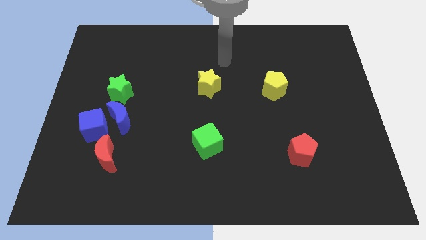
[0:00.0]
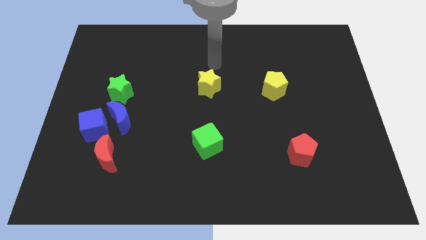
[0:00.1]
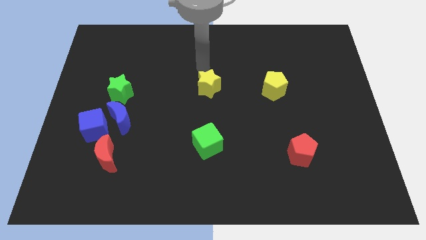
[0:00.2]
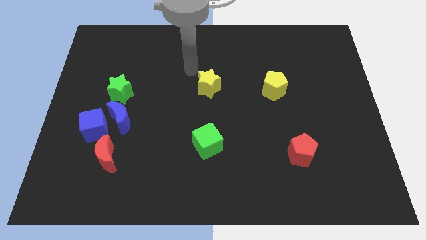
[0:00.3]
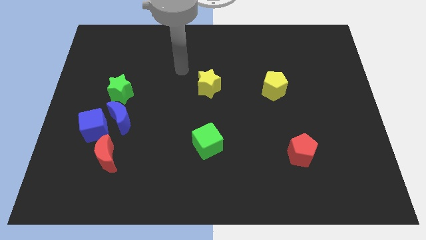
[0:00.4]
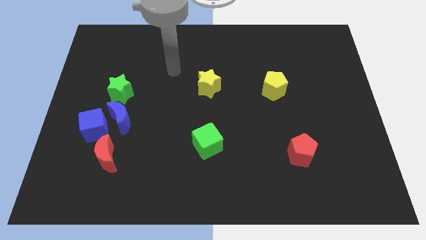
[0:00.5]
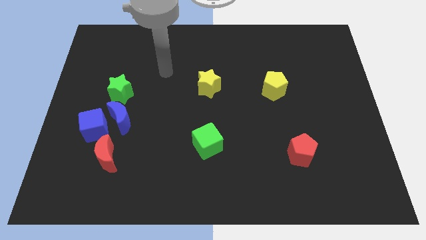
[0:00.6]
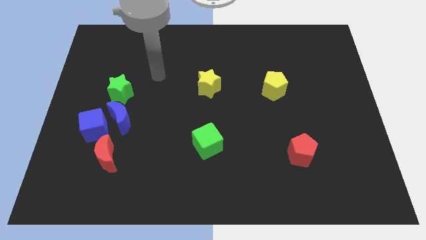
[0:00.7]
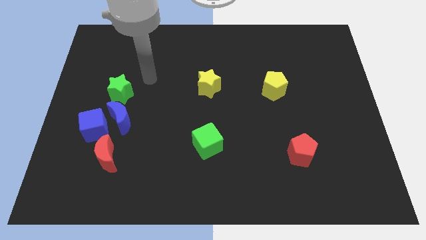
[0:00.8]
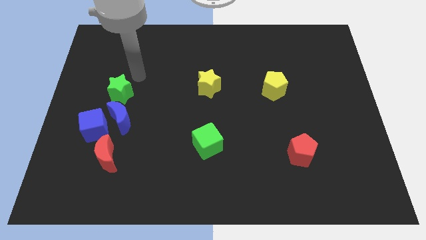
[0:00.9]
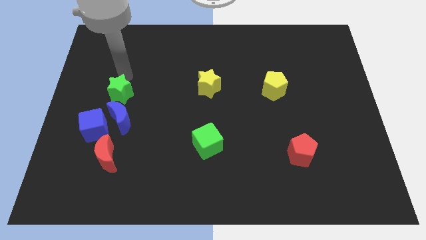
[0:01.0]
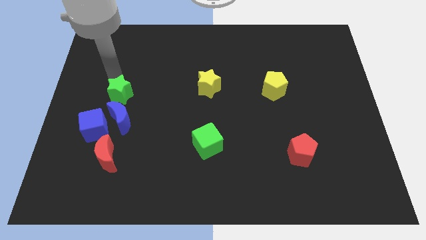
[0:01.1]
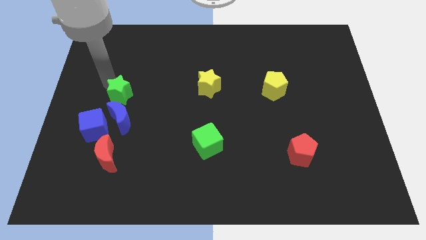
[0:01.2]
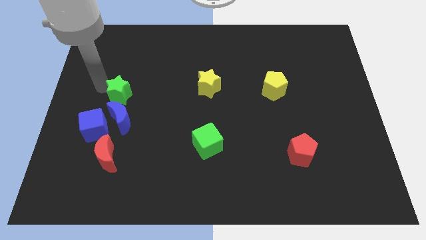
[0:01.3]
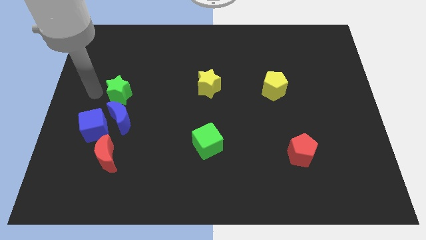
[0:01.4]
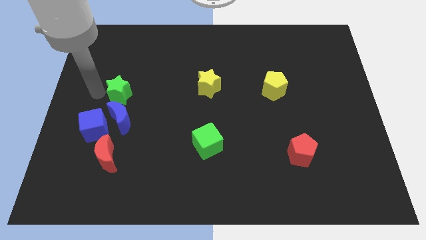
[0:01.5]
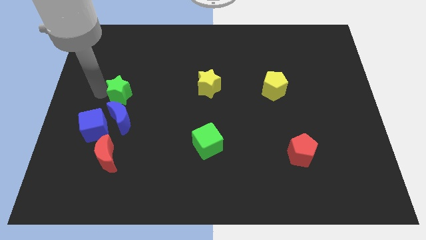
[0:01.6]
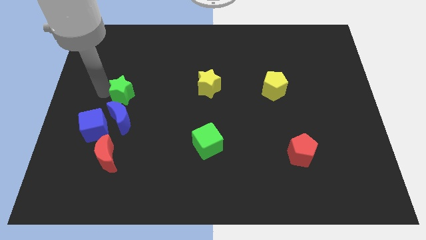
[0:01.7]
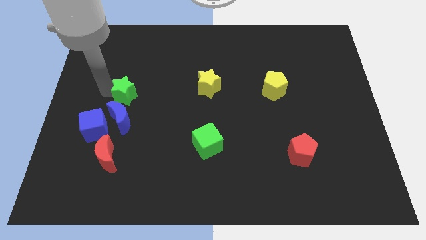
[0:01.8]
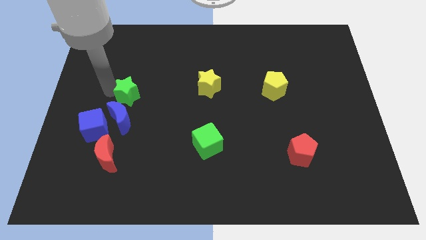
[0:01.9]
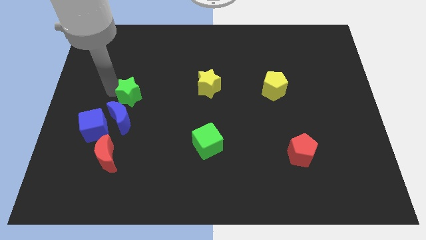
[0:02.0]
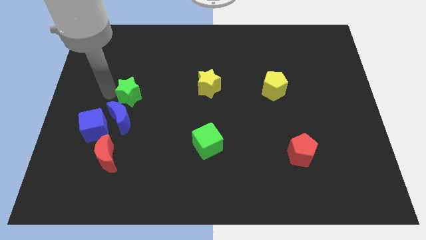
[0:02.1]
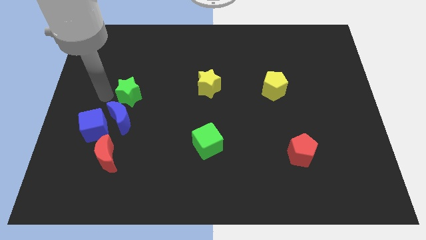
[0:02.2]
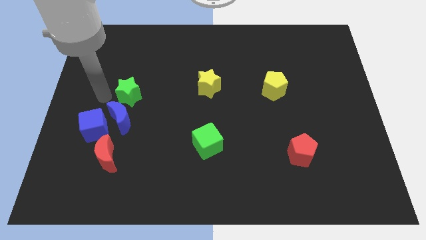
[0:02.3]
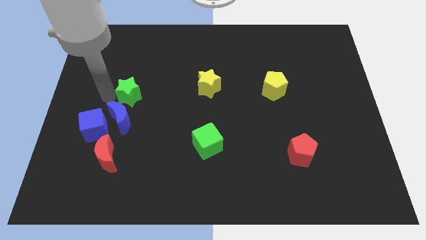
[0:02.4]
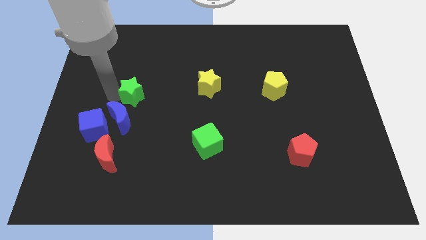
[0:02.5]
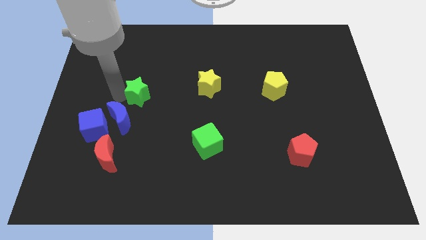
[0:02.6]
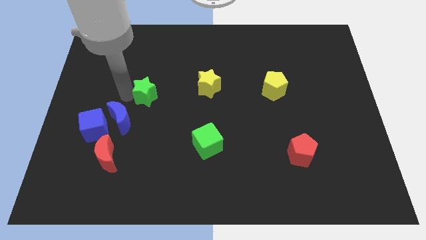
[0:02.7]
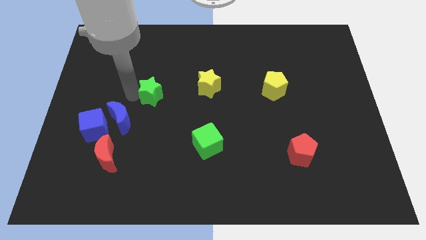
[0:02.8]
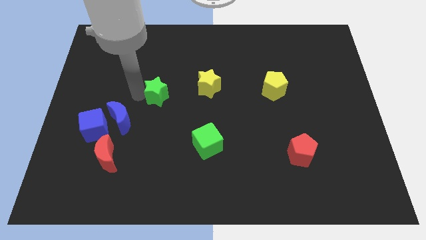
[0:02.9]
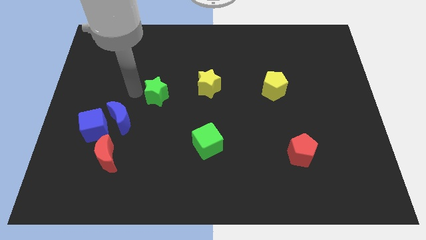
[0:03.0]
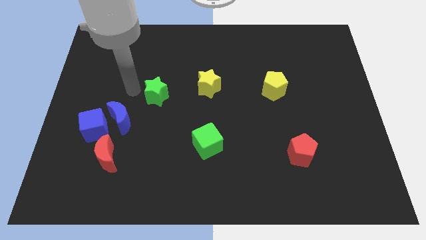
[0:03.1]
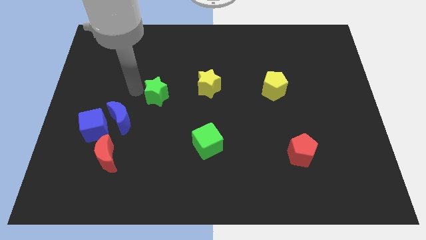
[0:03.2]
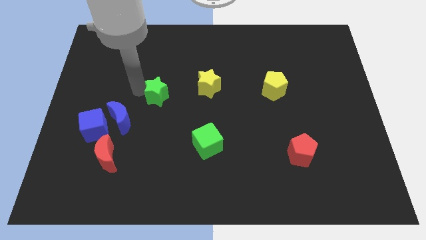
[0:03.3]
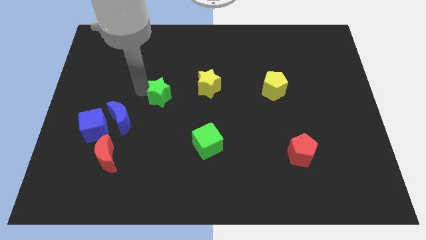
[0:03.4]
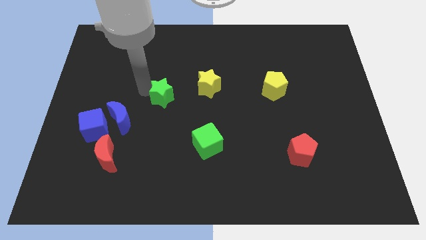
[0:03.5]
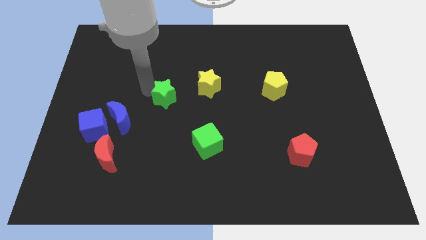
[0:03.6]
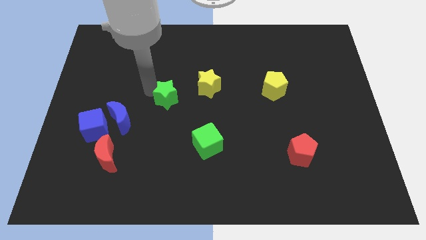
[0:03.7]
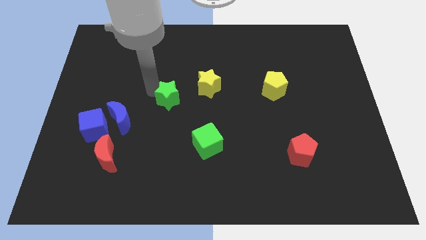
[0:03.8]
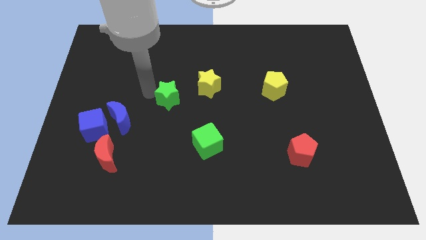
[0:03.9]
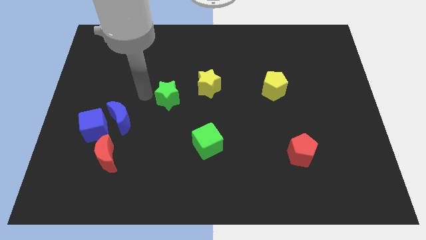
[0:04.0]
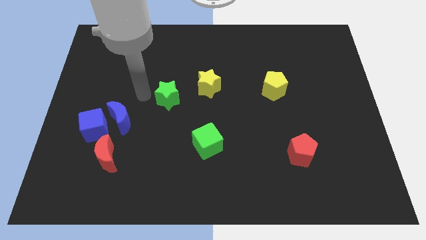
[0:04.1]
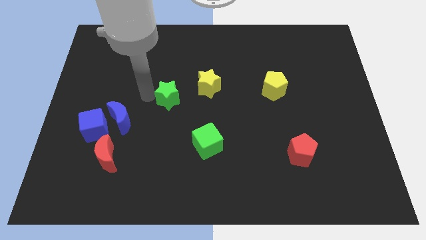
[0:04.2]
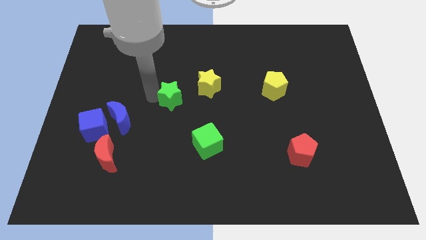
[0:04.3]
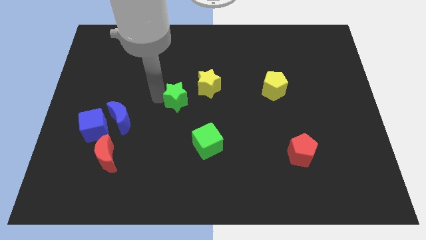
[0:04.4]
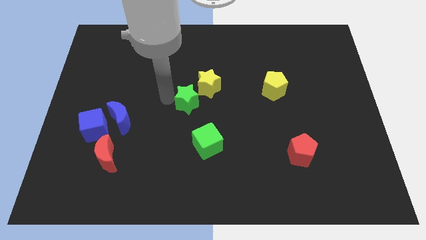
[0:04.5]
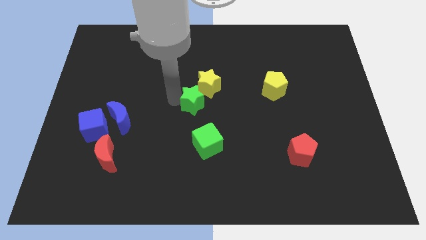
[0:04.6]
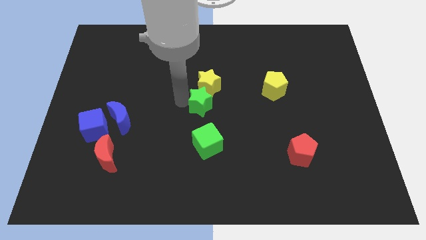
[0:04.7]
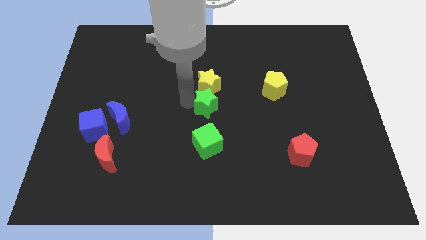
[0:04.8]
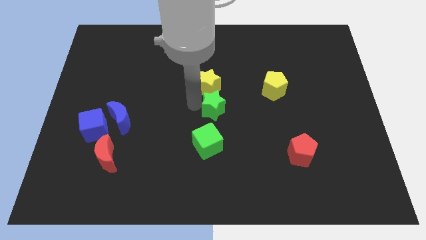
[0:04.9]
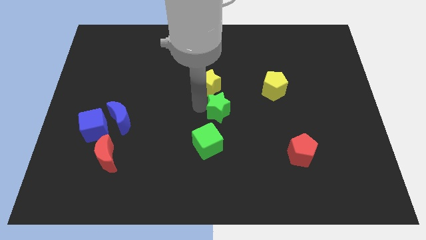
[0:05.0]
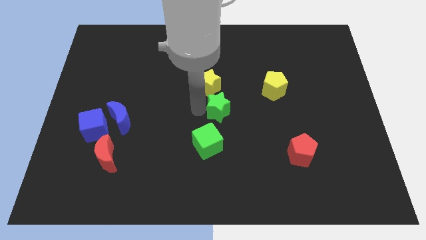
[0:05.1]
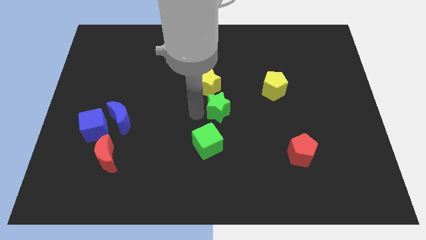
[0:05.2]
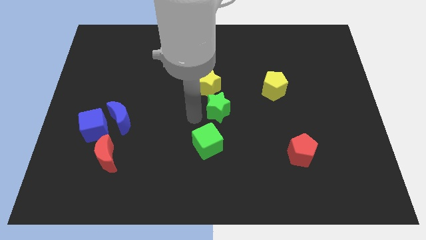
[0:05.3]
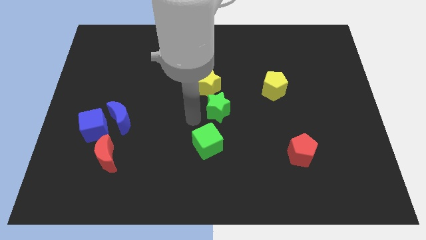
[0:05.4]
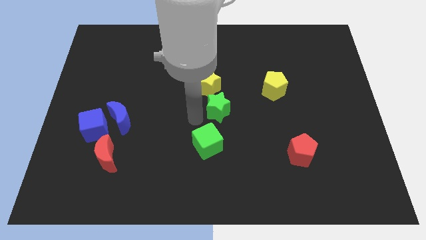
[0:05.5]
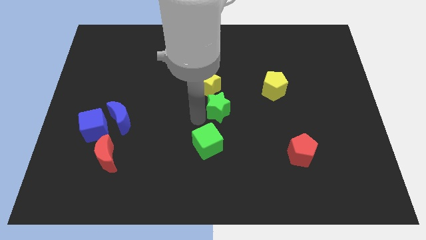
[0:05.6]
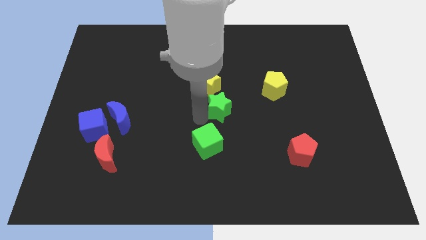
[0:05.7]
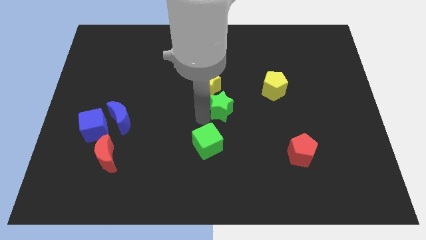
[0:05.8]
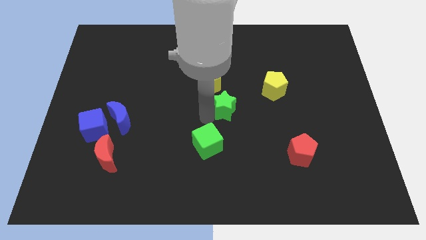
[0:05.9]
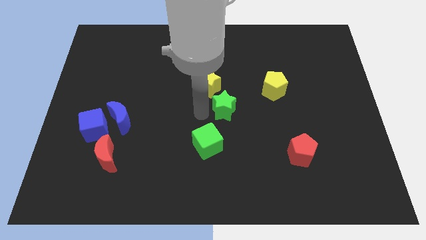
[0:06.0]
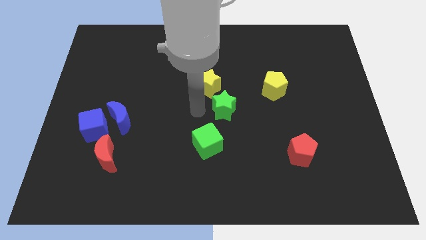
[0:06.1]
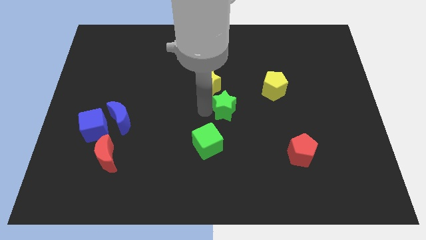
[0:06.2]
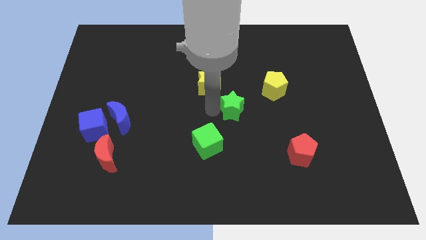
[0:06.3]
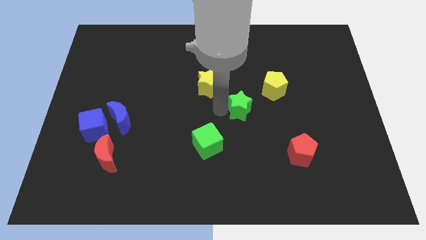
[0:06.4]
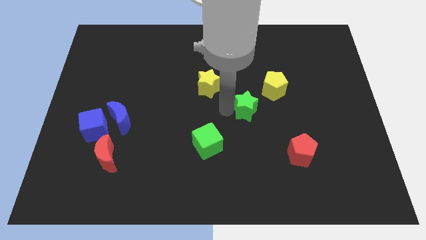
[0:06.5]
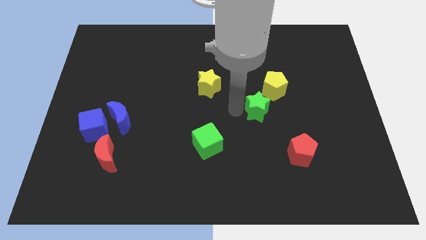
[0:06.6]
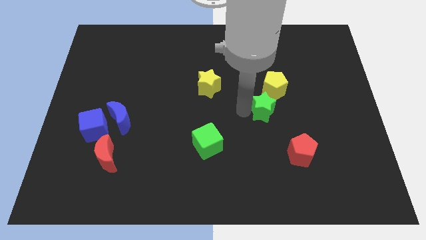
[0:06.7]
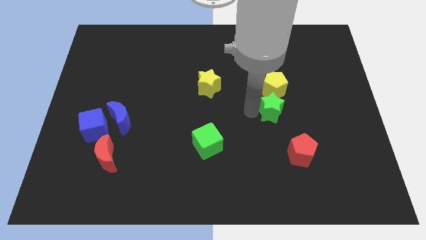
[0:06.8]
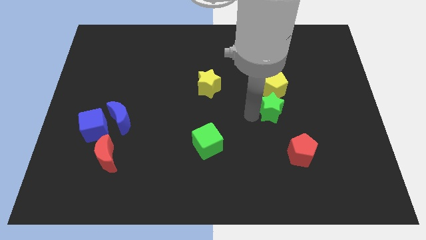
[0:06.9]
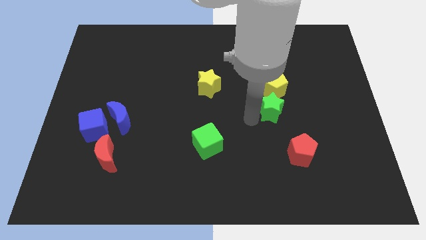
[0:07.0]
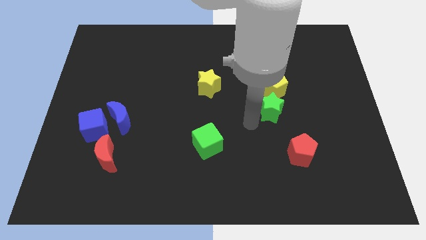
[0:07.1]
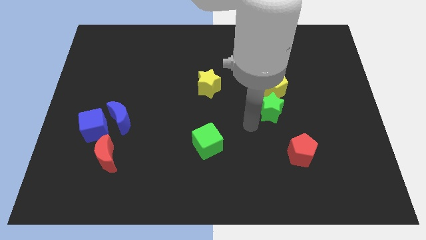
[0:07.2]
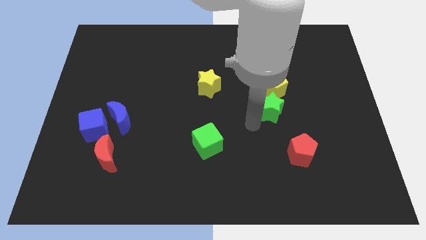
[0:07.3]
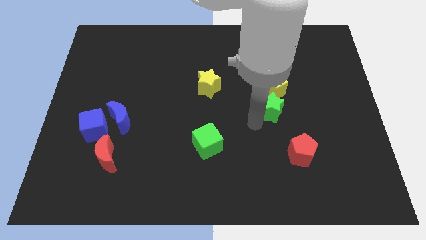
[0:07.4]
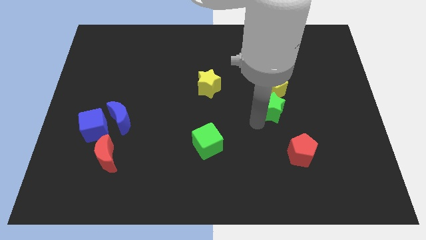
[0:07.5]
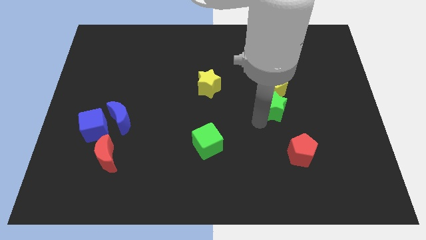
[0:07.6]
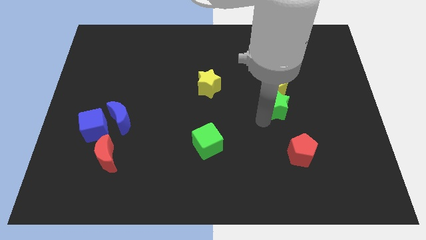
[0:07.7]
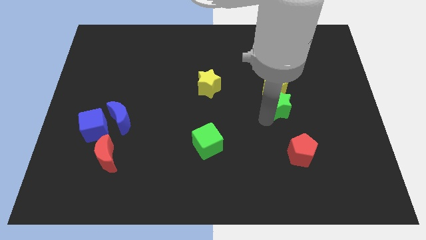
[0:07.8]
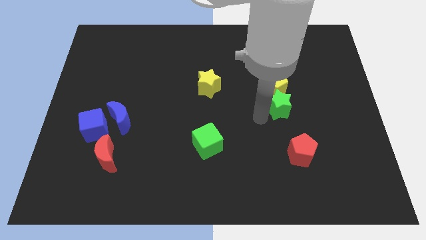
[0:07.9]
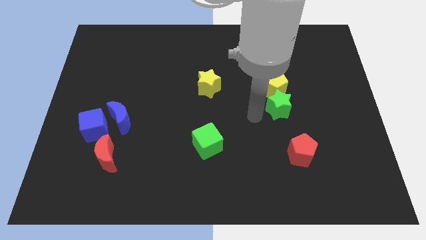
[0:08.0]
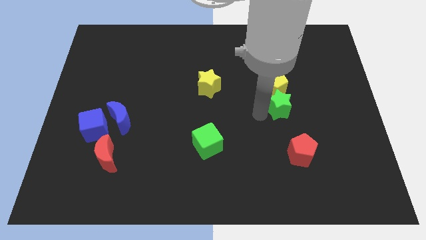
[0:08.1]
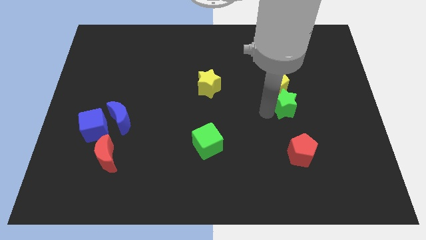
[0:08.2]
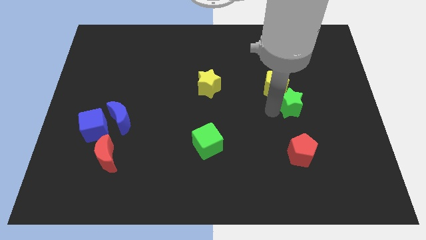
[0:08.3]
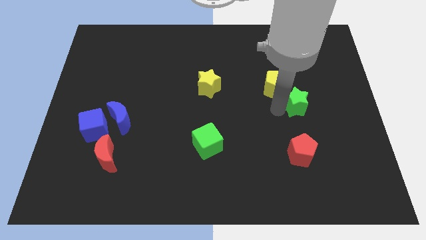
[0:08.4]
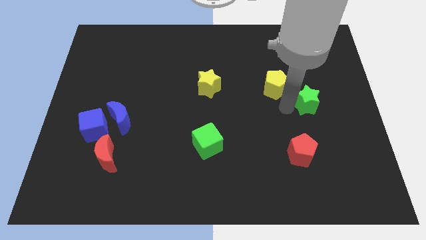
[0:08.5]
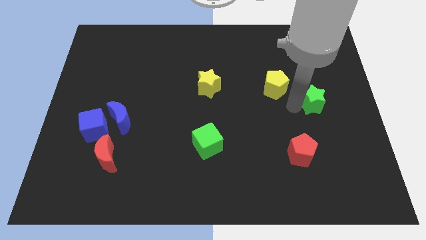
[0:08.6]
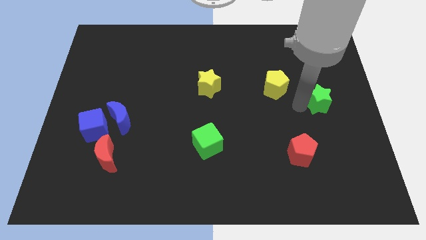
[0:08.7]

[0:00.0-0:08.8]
slide the green star to the right side of the board
